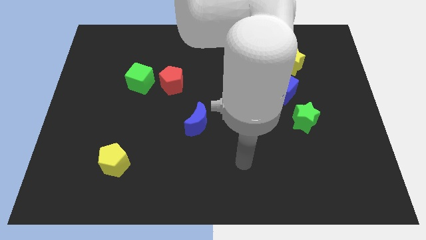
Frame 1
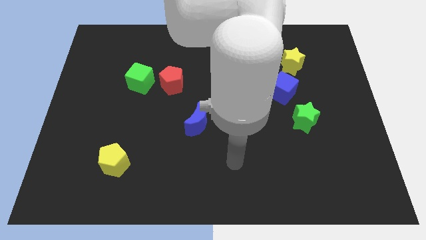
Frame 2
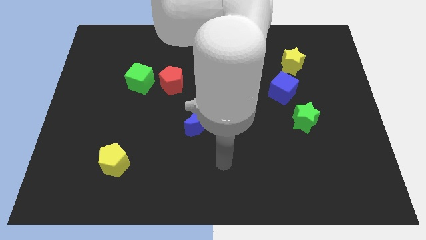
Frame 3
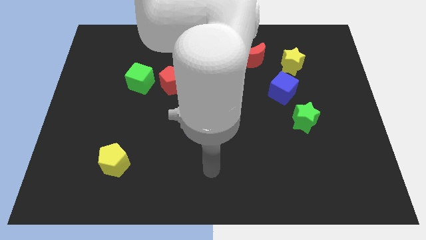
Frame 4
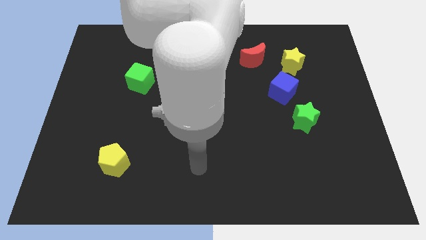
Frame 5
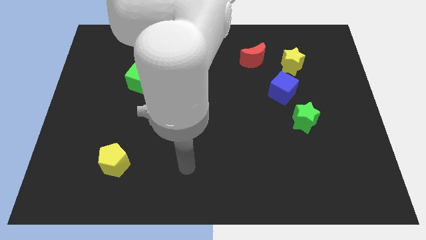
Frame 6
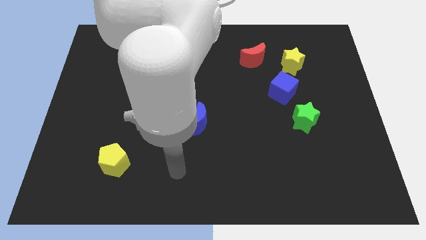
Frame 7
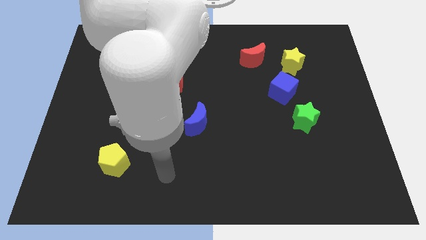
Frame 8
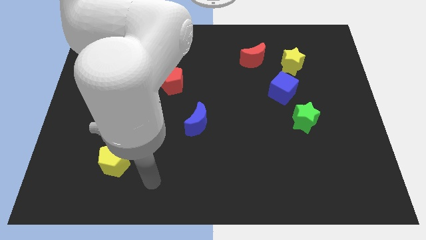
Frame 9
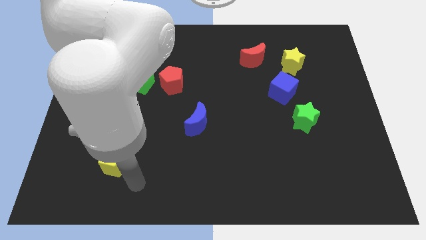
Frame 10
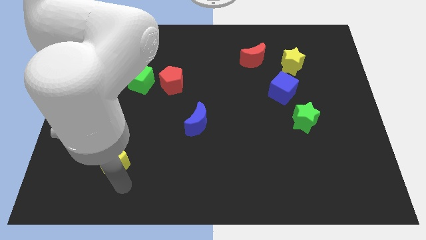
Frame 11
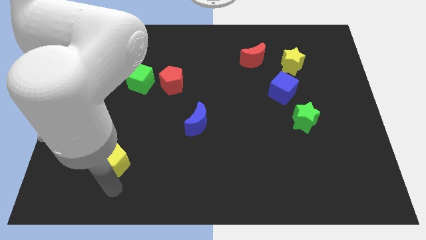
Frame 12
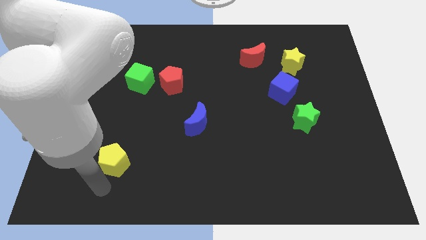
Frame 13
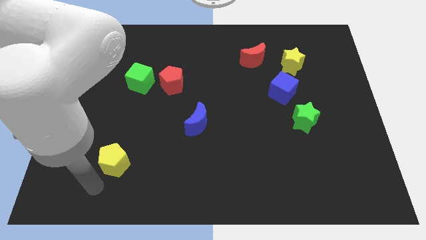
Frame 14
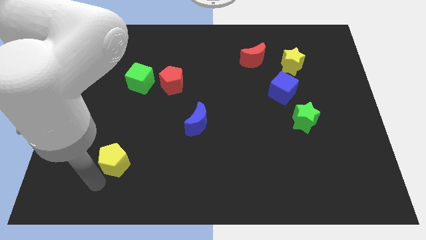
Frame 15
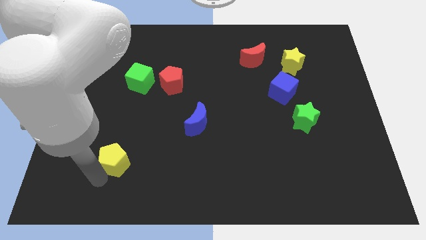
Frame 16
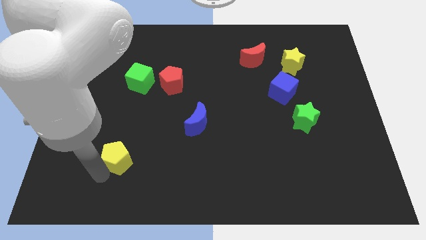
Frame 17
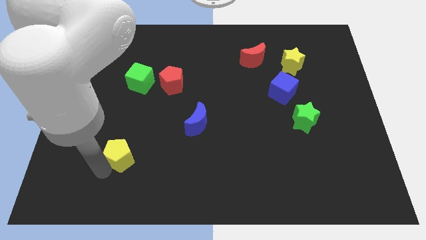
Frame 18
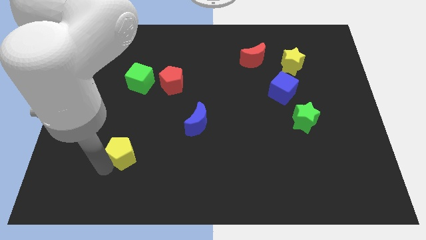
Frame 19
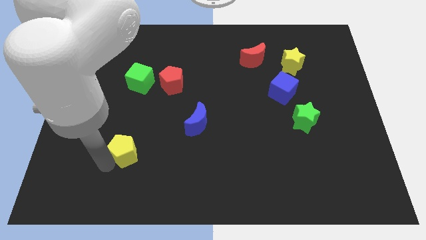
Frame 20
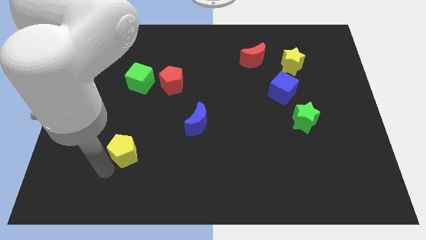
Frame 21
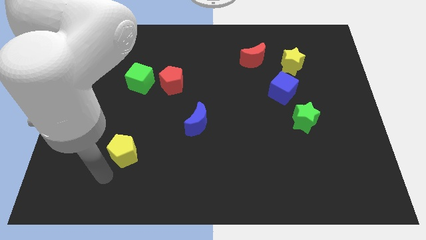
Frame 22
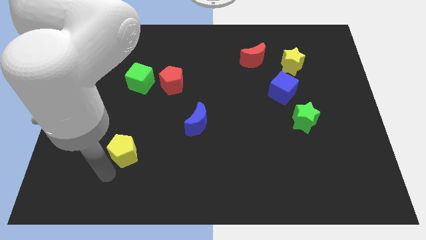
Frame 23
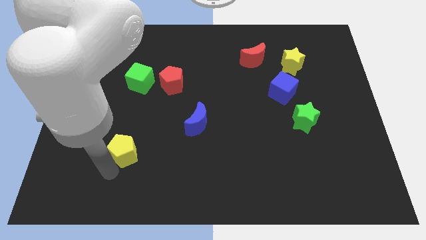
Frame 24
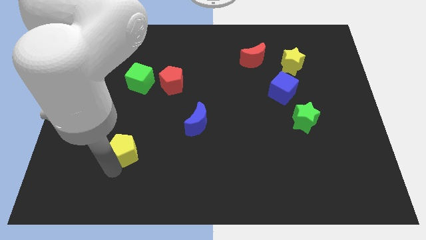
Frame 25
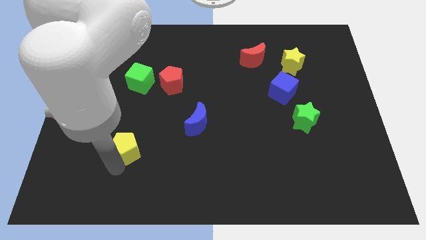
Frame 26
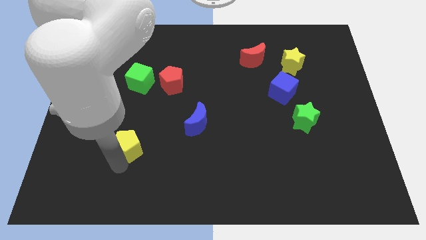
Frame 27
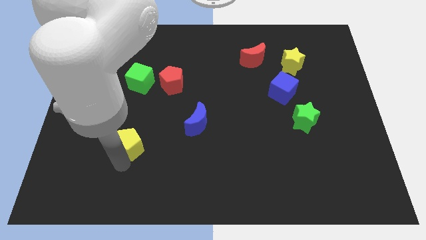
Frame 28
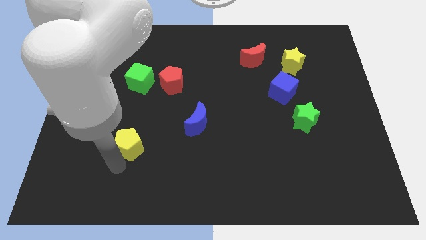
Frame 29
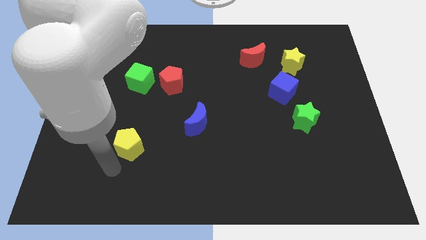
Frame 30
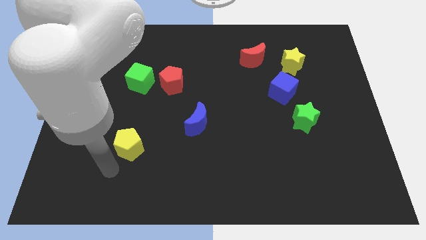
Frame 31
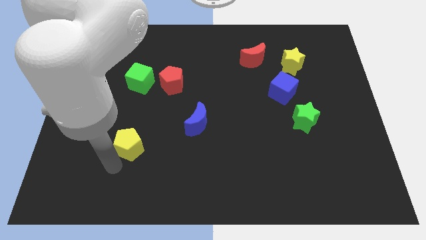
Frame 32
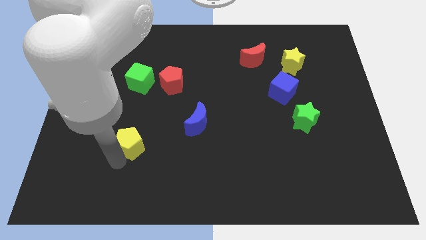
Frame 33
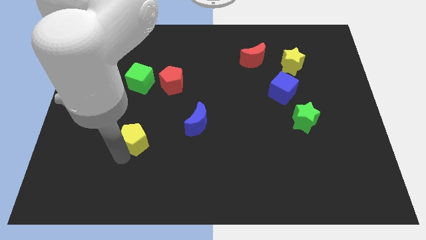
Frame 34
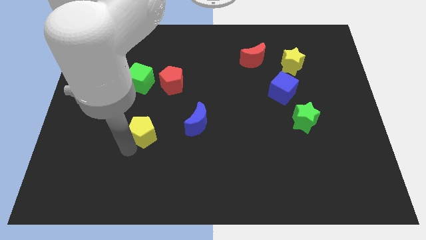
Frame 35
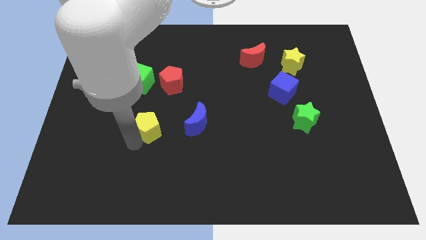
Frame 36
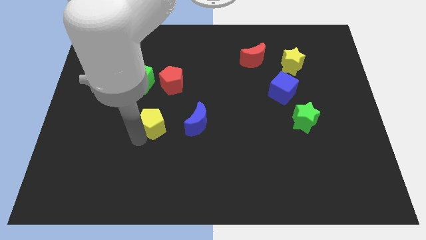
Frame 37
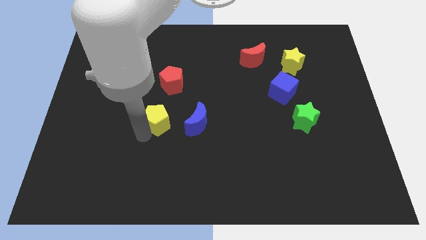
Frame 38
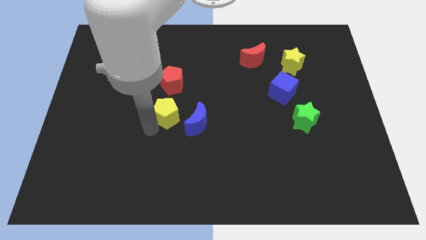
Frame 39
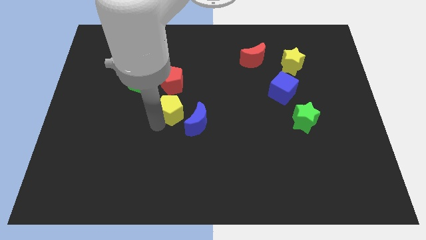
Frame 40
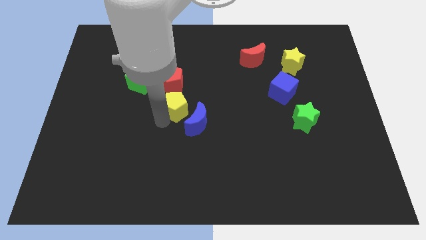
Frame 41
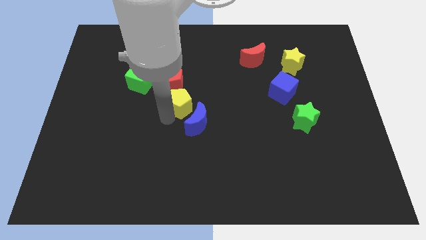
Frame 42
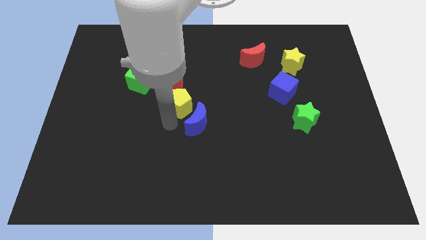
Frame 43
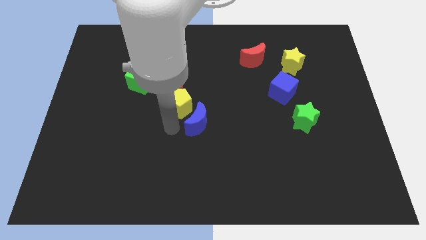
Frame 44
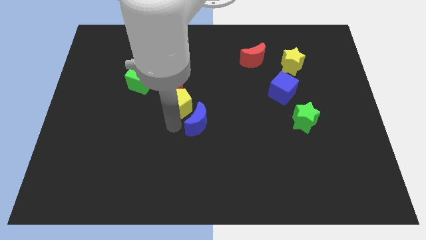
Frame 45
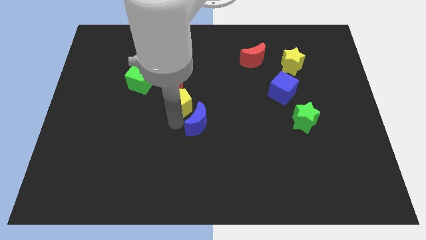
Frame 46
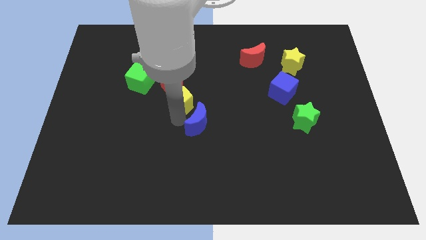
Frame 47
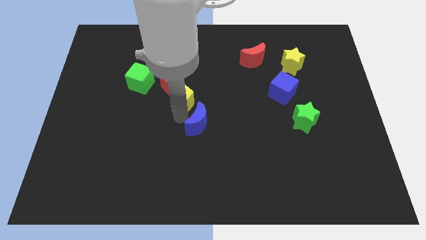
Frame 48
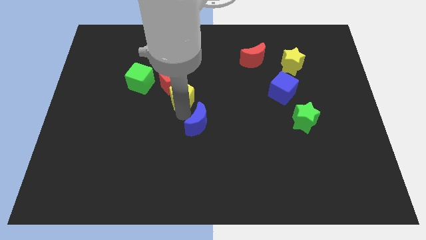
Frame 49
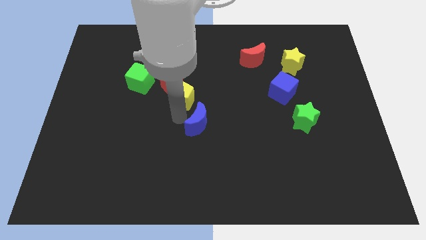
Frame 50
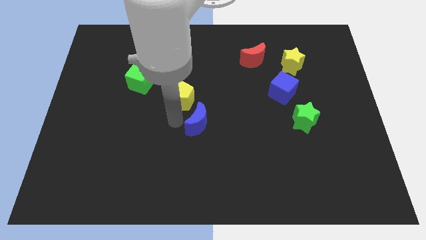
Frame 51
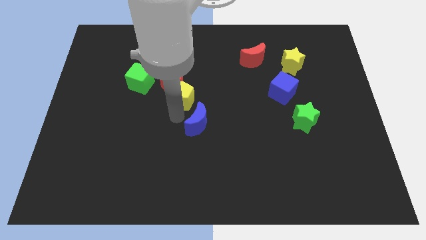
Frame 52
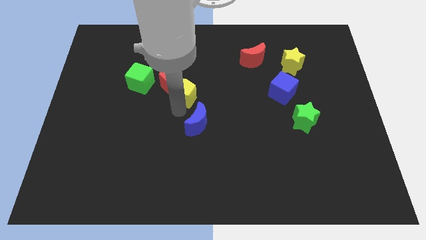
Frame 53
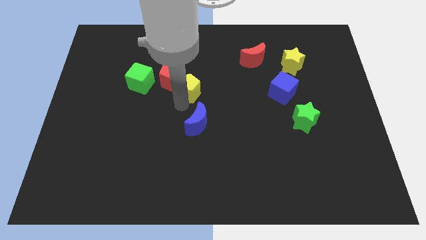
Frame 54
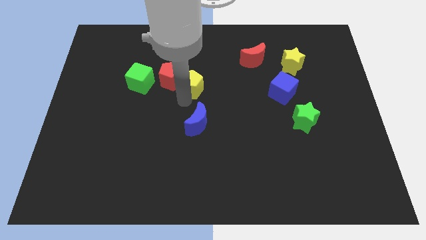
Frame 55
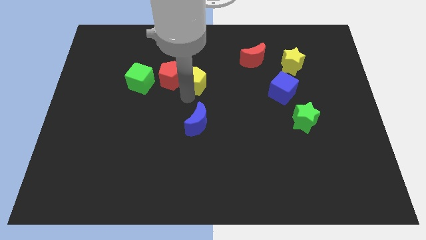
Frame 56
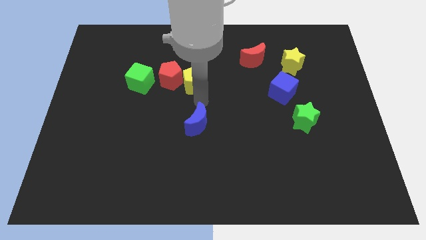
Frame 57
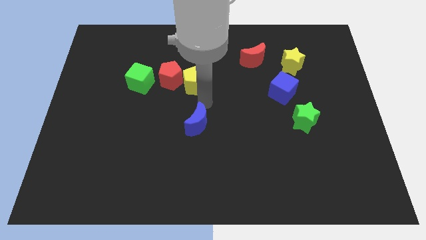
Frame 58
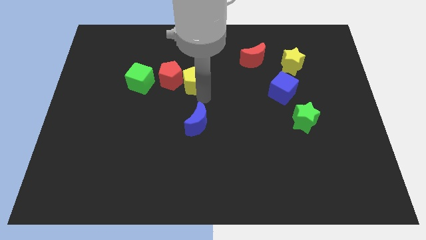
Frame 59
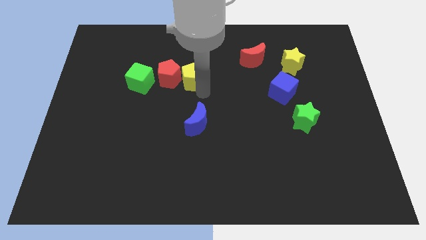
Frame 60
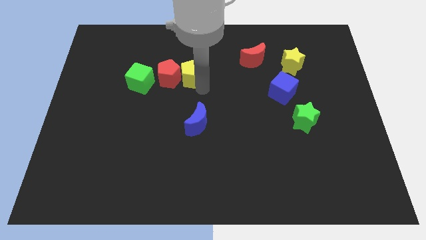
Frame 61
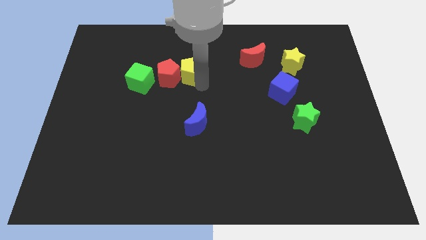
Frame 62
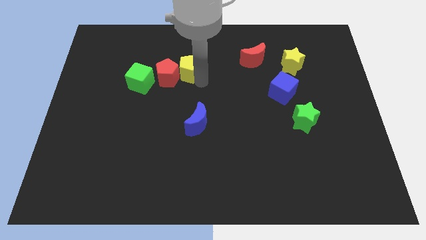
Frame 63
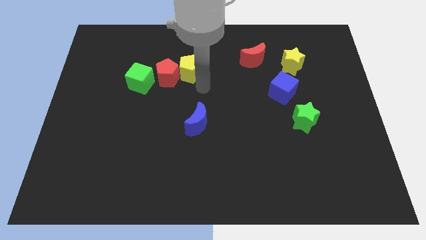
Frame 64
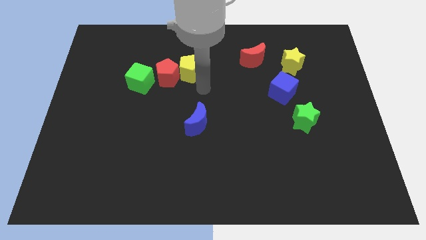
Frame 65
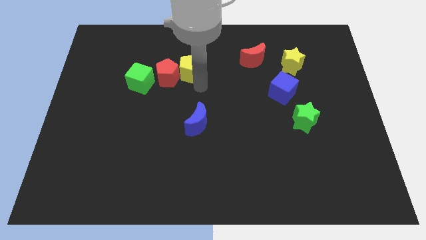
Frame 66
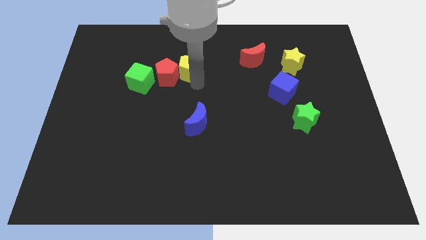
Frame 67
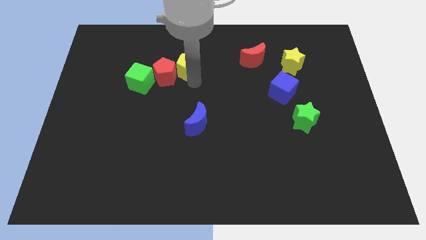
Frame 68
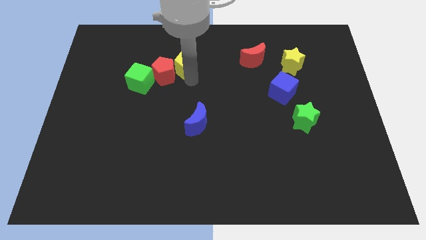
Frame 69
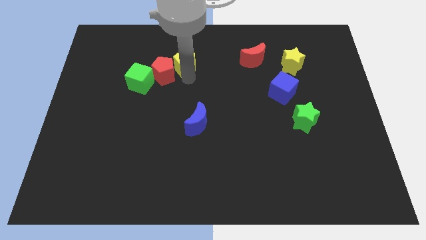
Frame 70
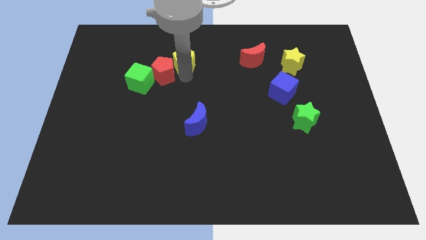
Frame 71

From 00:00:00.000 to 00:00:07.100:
slide the yellow pentagon above the red pentagon
